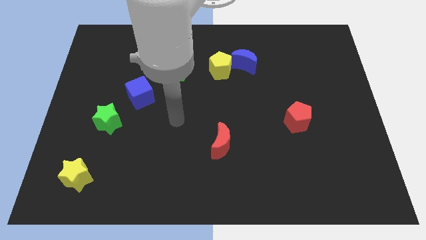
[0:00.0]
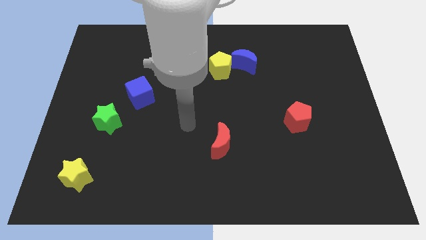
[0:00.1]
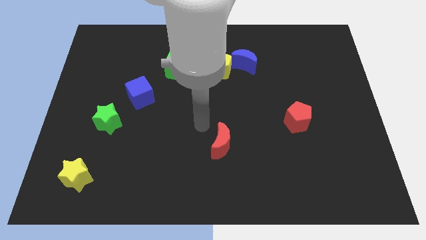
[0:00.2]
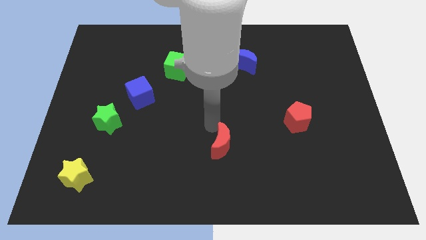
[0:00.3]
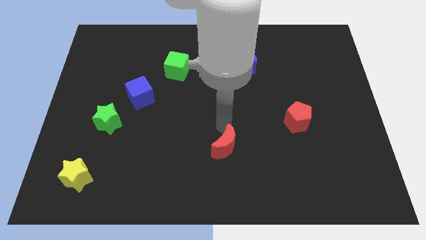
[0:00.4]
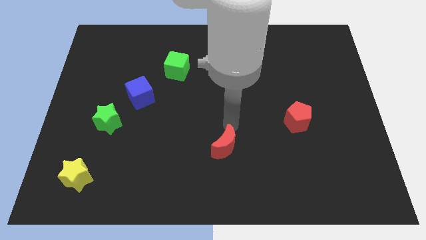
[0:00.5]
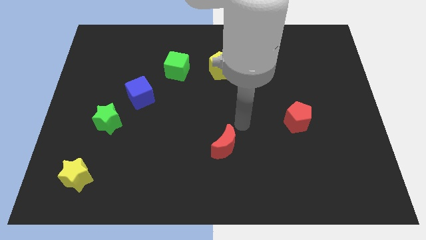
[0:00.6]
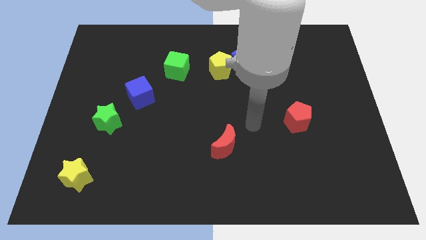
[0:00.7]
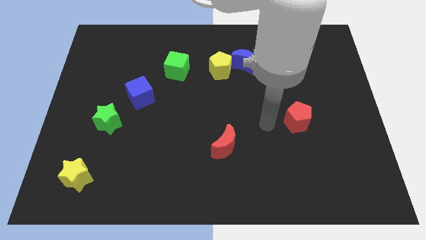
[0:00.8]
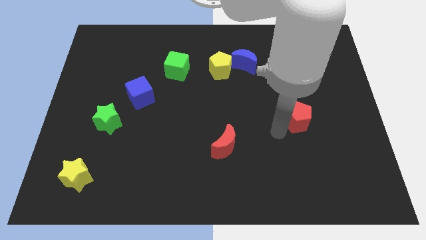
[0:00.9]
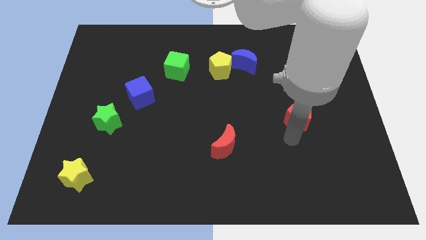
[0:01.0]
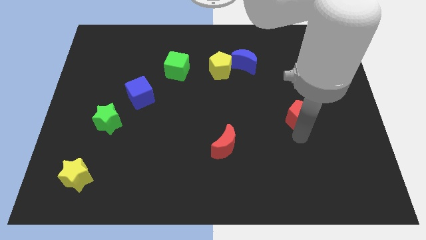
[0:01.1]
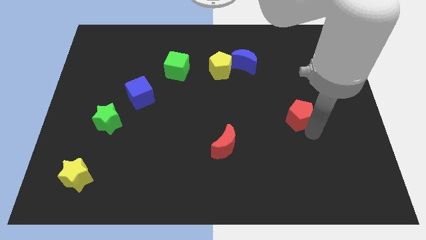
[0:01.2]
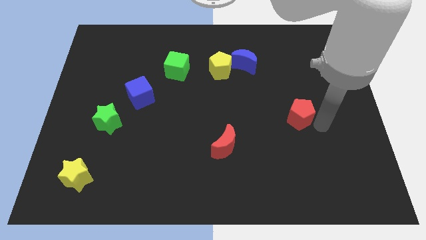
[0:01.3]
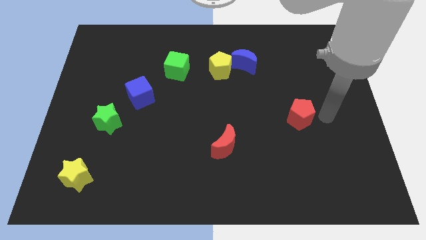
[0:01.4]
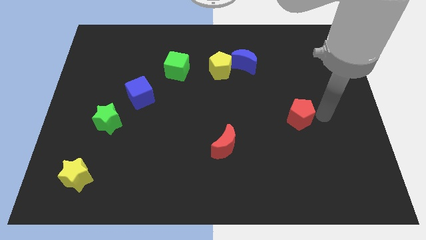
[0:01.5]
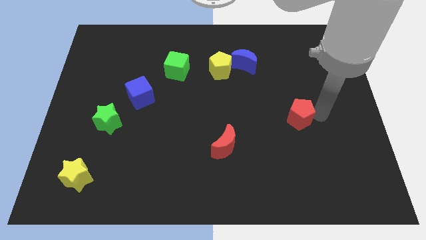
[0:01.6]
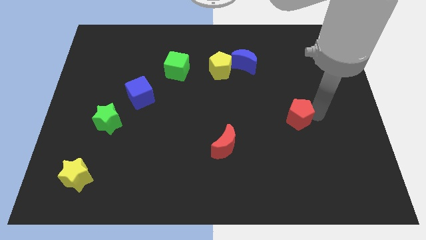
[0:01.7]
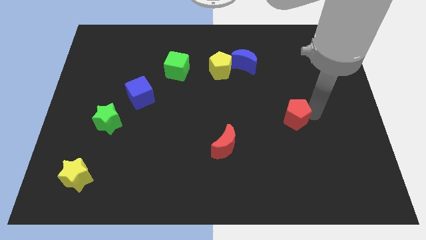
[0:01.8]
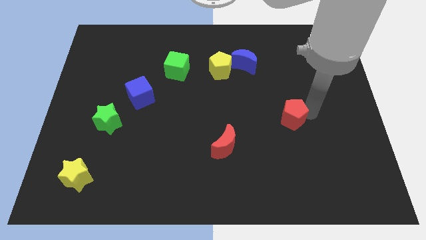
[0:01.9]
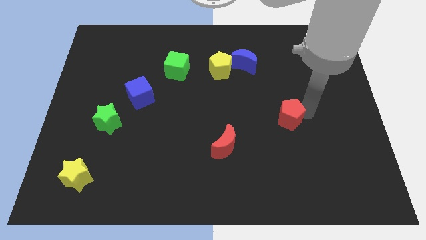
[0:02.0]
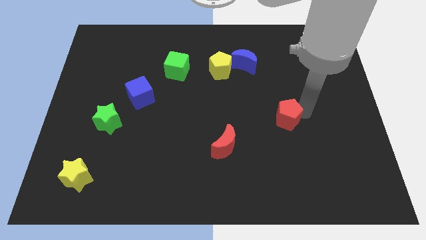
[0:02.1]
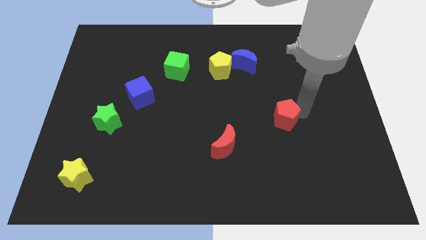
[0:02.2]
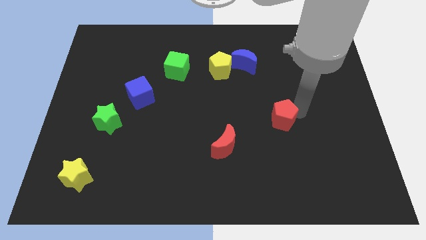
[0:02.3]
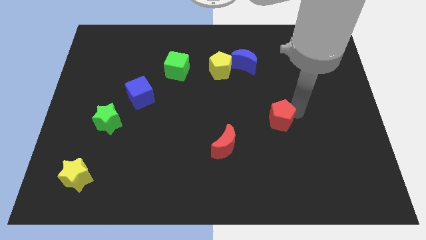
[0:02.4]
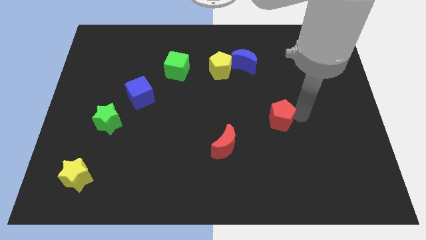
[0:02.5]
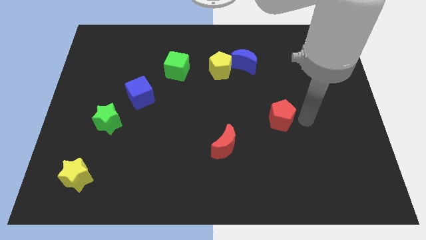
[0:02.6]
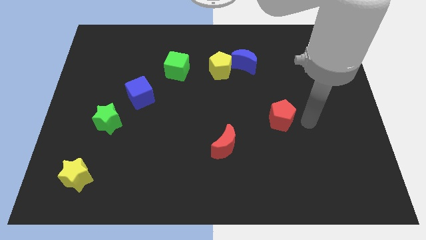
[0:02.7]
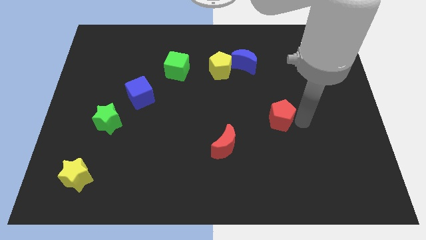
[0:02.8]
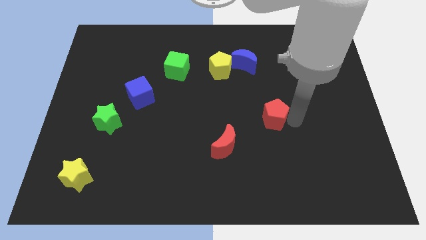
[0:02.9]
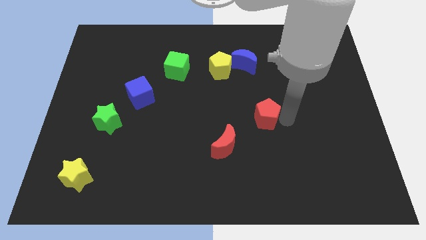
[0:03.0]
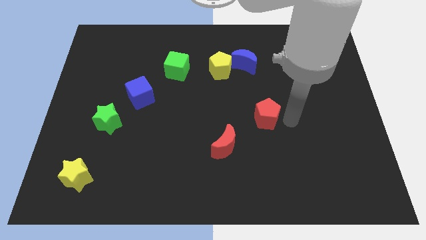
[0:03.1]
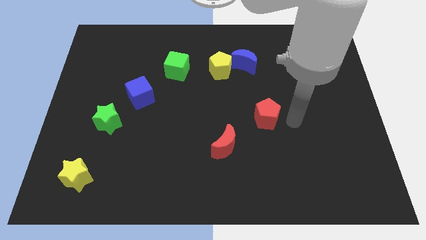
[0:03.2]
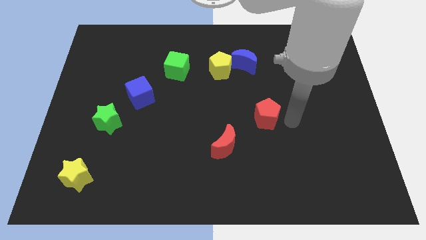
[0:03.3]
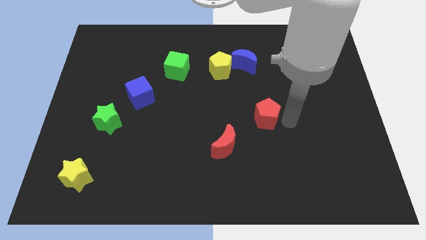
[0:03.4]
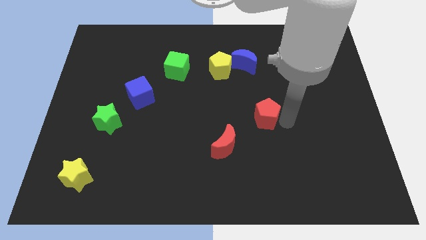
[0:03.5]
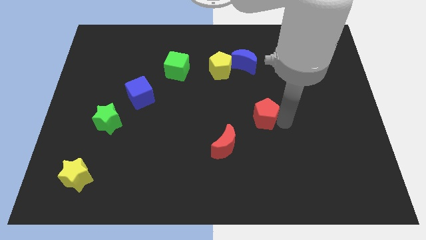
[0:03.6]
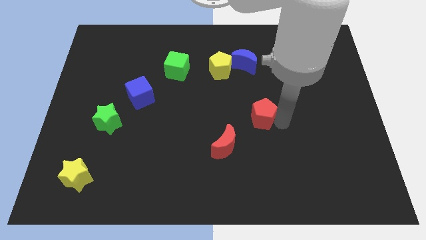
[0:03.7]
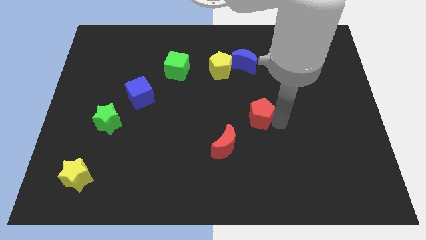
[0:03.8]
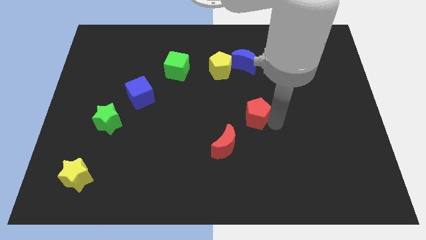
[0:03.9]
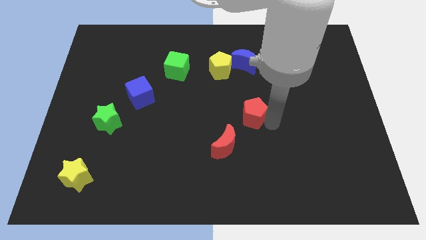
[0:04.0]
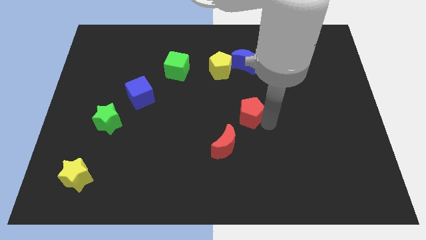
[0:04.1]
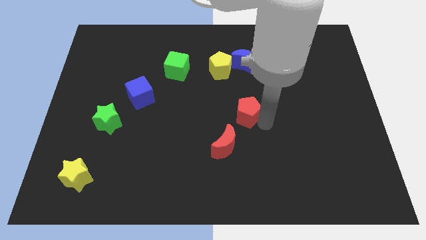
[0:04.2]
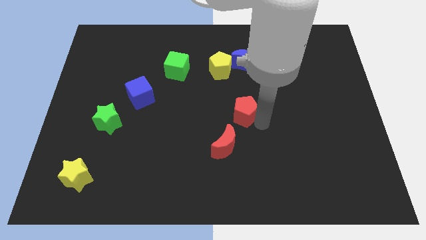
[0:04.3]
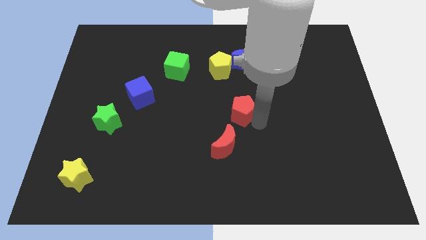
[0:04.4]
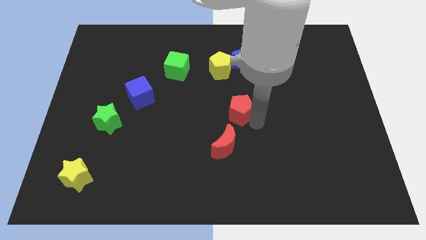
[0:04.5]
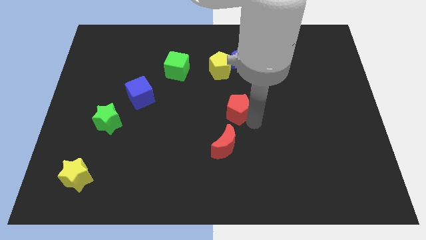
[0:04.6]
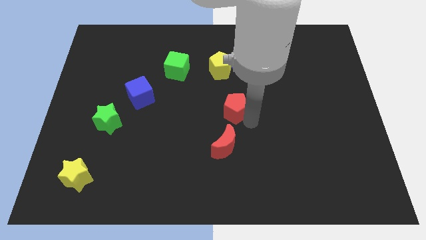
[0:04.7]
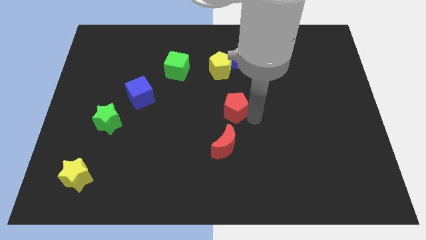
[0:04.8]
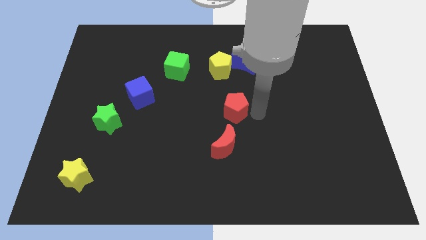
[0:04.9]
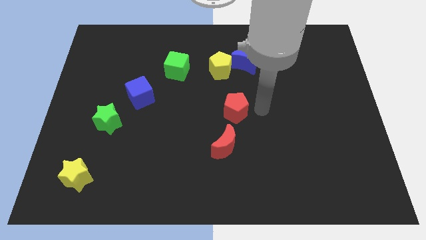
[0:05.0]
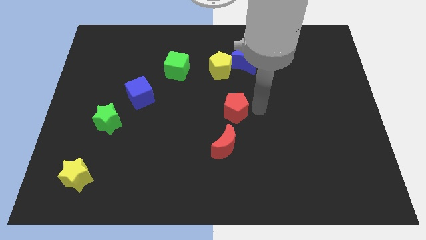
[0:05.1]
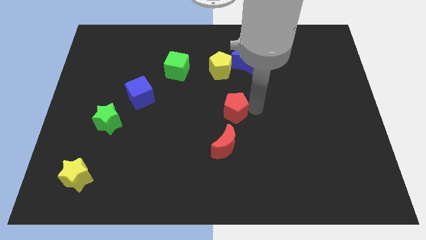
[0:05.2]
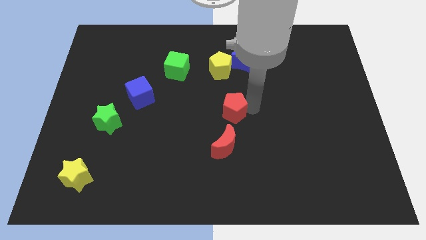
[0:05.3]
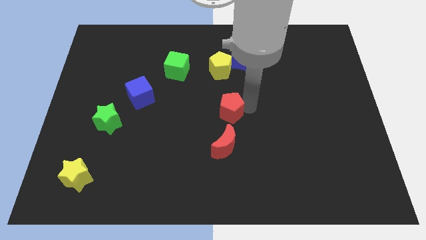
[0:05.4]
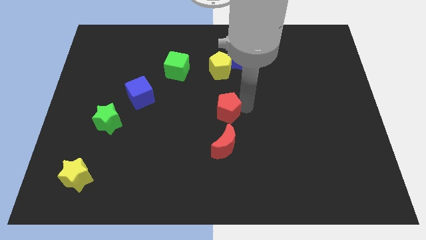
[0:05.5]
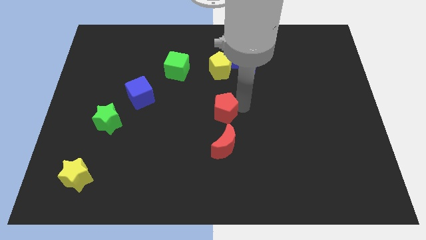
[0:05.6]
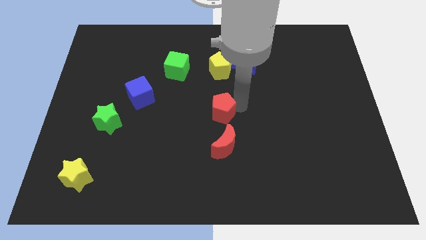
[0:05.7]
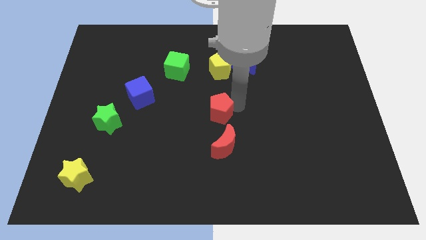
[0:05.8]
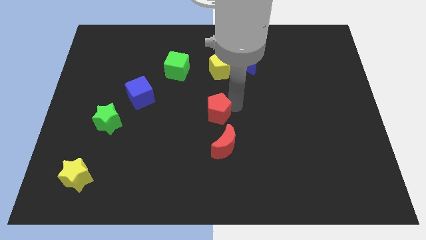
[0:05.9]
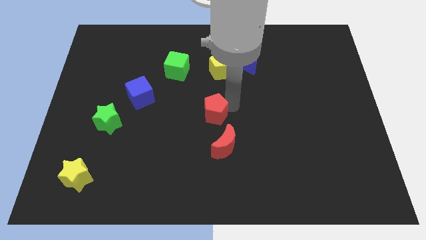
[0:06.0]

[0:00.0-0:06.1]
slide the red pentagon to the top left of the red moon

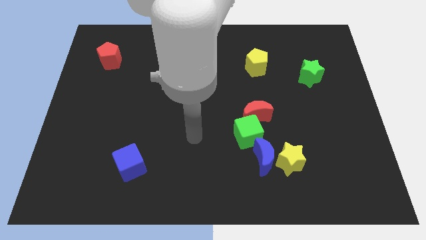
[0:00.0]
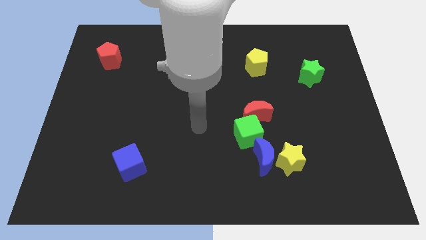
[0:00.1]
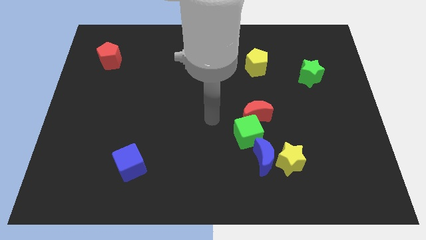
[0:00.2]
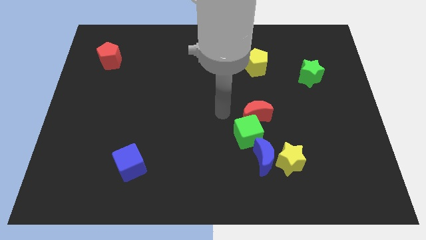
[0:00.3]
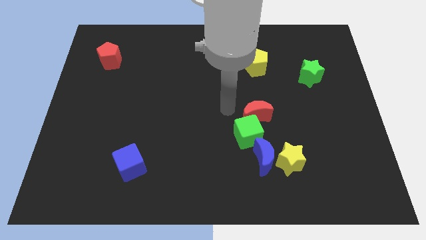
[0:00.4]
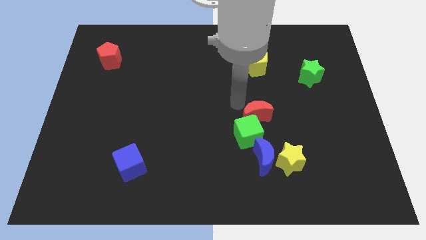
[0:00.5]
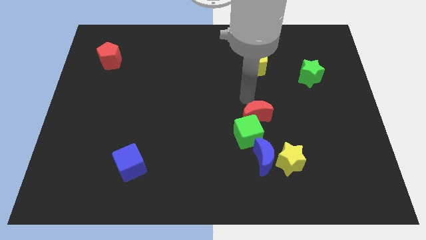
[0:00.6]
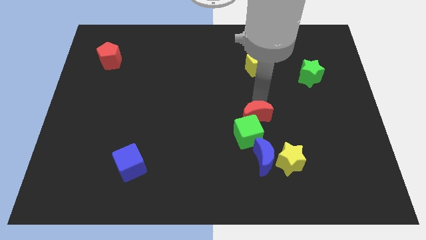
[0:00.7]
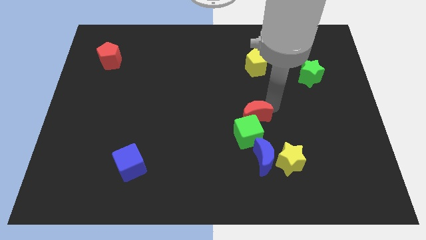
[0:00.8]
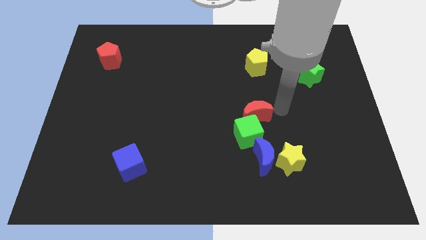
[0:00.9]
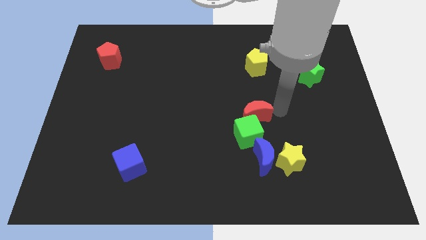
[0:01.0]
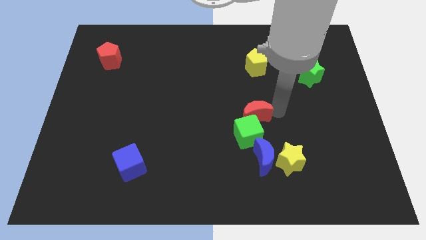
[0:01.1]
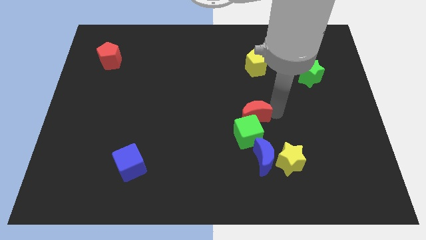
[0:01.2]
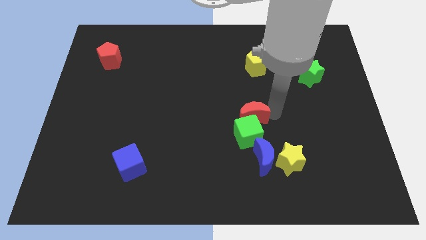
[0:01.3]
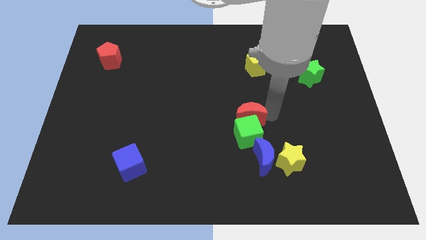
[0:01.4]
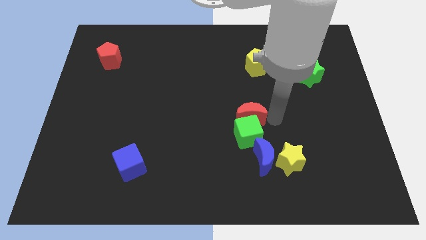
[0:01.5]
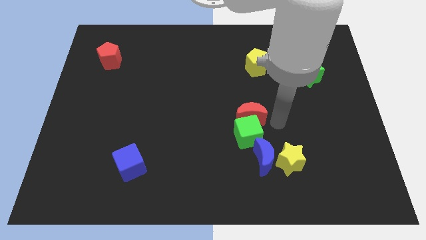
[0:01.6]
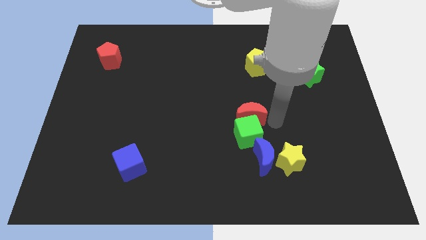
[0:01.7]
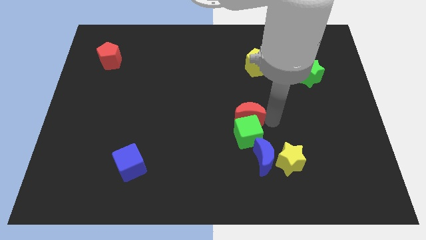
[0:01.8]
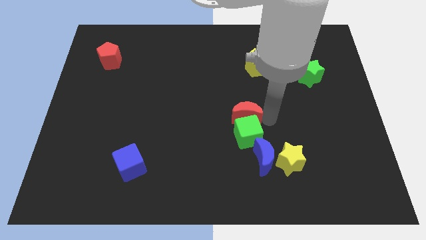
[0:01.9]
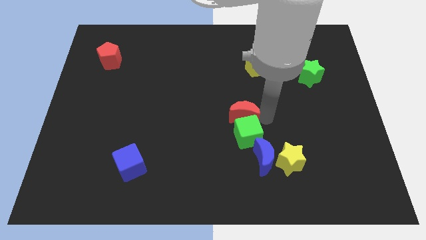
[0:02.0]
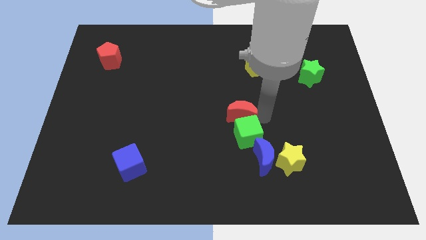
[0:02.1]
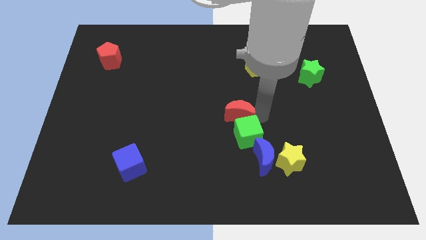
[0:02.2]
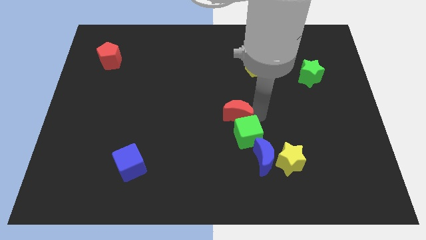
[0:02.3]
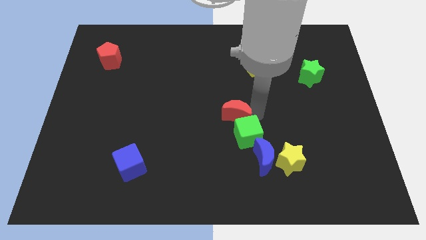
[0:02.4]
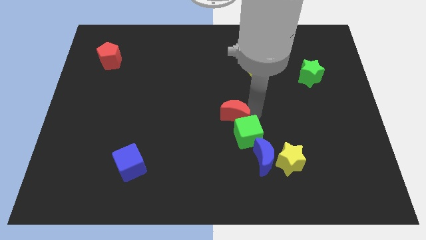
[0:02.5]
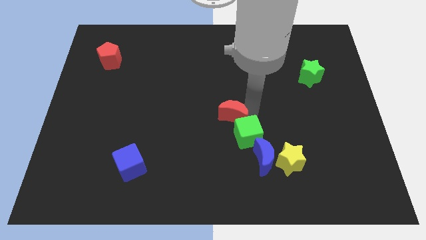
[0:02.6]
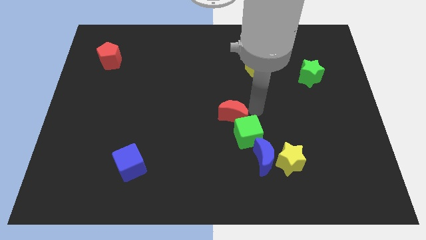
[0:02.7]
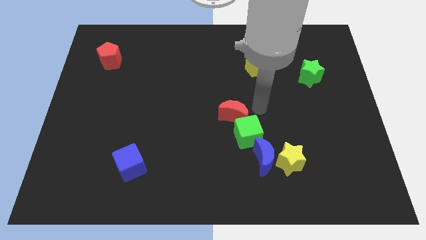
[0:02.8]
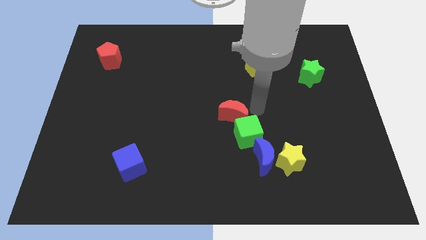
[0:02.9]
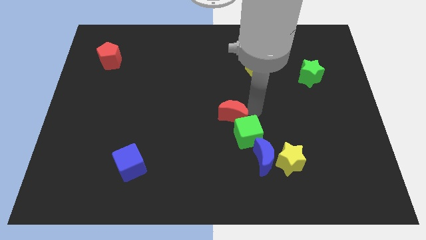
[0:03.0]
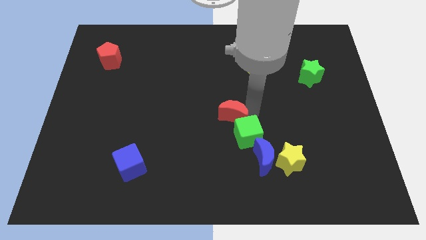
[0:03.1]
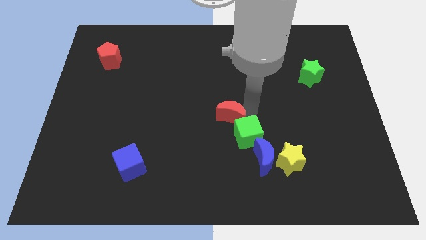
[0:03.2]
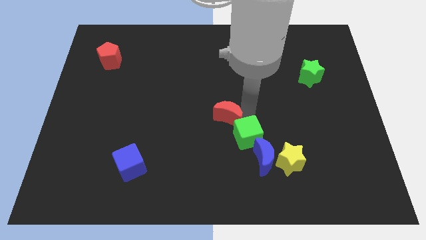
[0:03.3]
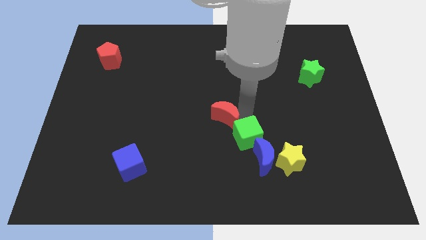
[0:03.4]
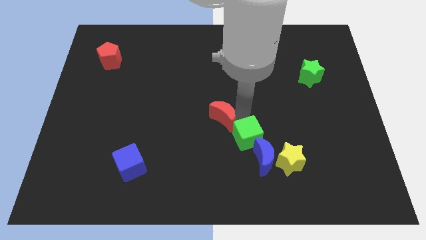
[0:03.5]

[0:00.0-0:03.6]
put the red moon to the left side of the green cube
